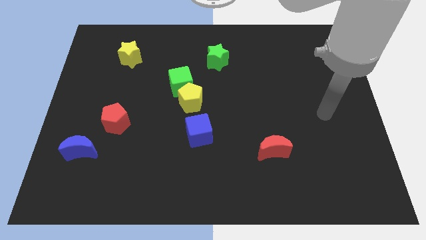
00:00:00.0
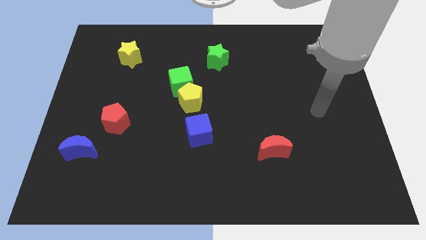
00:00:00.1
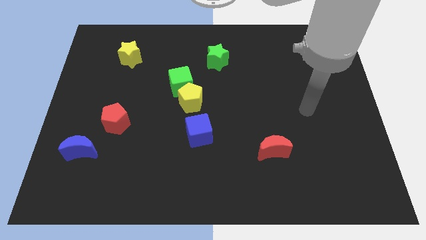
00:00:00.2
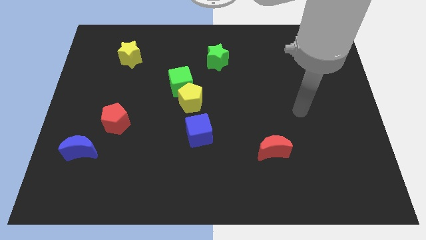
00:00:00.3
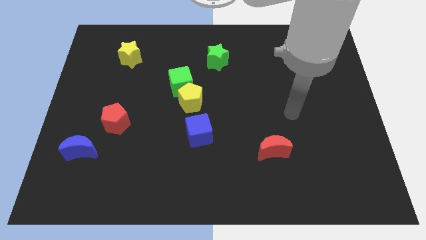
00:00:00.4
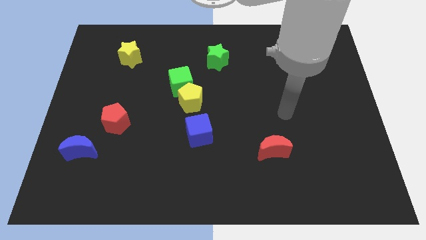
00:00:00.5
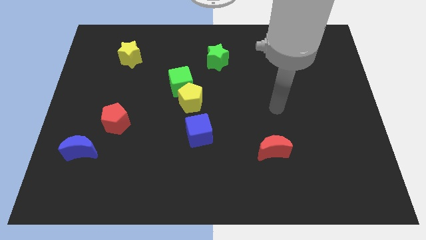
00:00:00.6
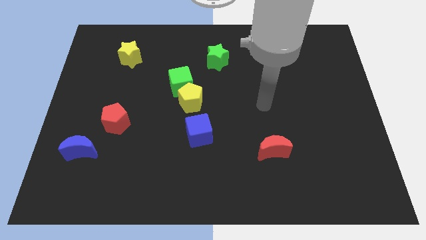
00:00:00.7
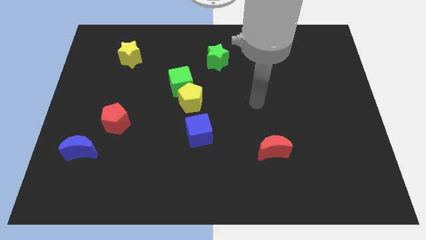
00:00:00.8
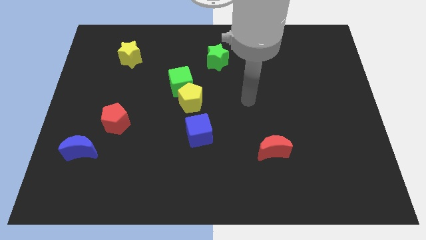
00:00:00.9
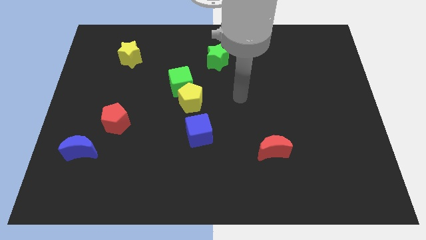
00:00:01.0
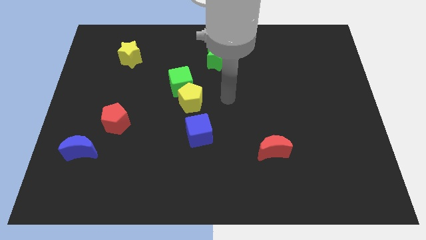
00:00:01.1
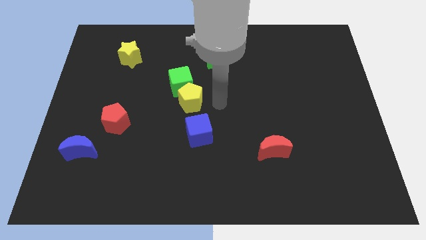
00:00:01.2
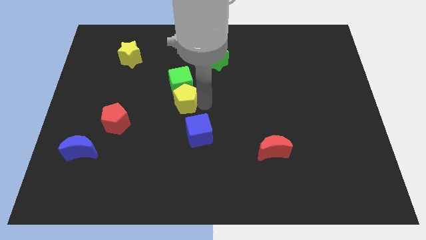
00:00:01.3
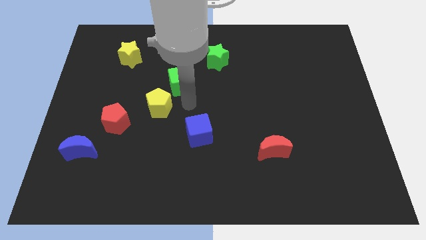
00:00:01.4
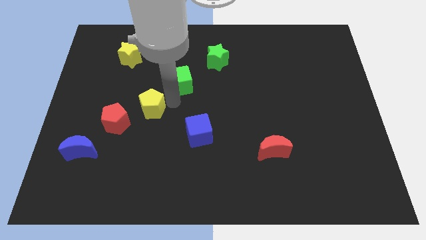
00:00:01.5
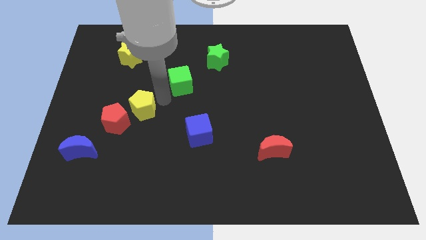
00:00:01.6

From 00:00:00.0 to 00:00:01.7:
separate the green cube from the yellow pentagon

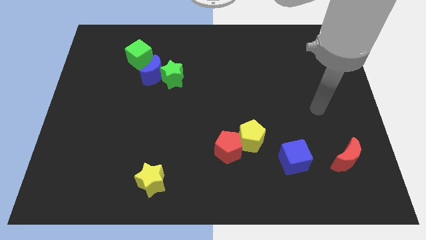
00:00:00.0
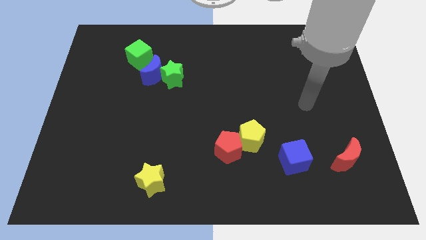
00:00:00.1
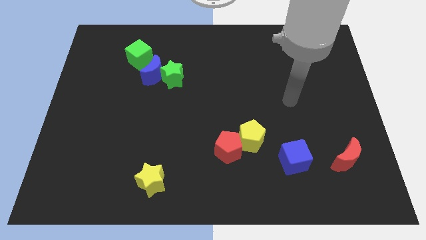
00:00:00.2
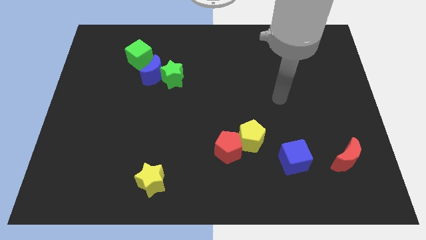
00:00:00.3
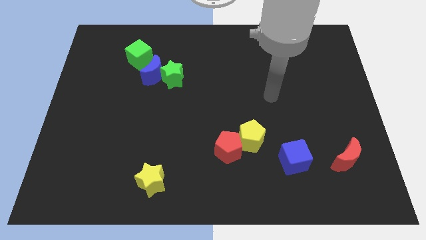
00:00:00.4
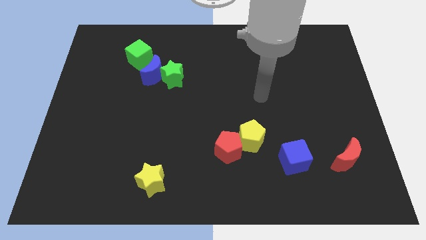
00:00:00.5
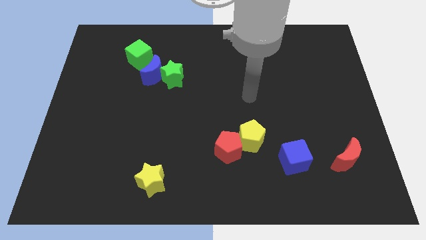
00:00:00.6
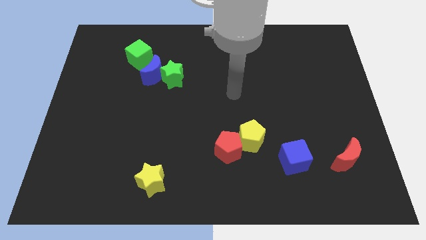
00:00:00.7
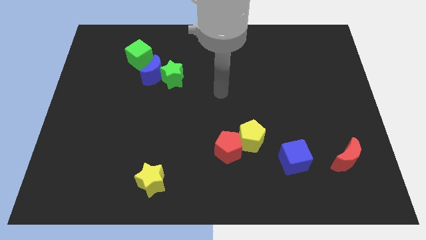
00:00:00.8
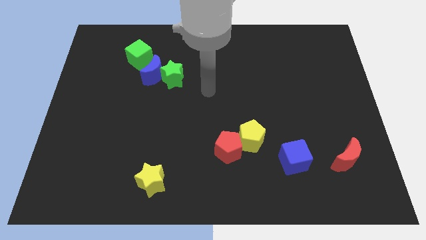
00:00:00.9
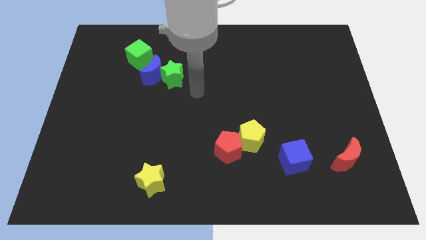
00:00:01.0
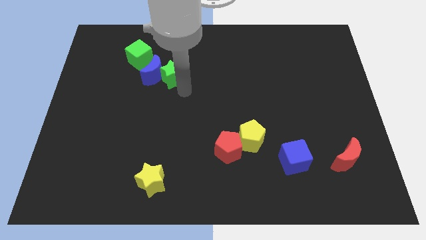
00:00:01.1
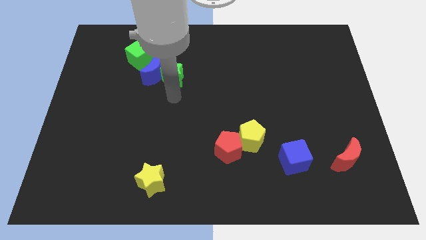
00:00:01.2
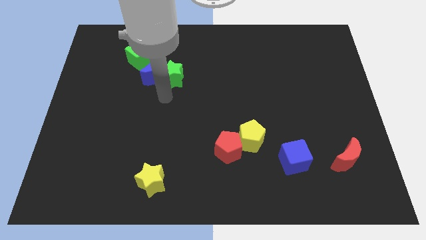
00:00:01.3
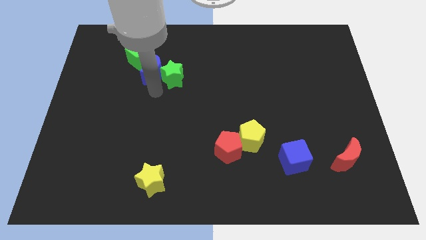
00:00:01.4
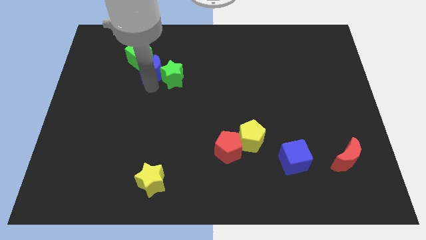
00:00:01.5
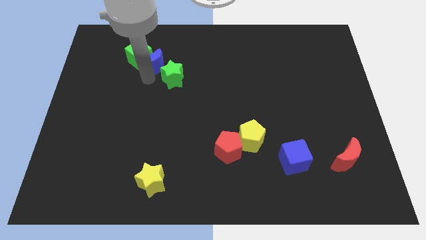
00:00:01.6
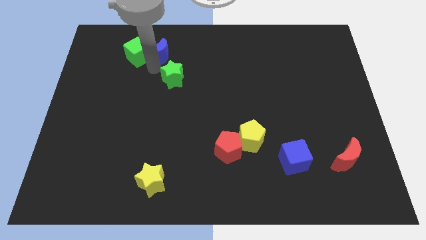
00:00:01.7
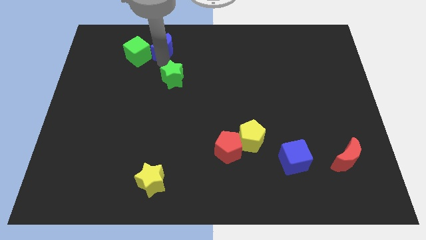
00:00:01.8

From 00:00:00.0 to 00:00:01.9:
move the green star away from the blue moon

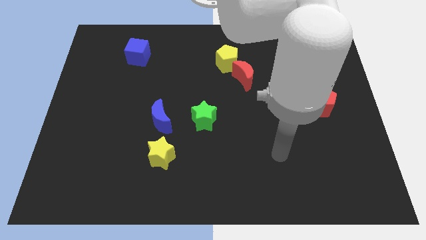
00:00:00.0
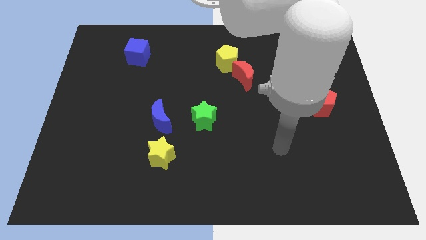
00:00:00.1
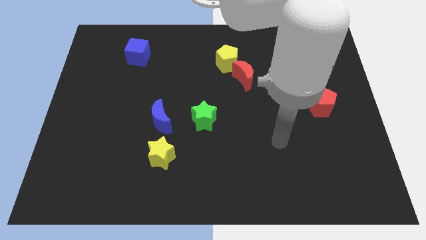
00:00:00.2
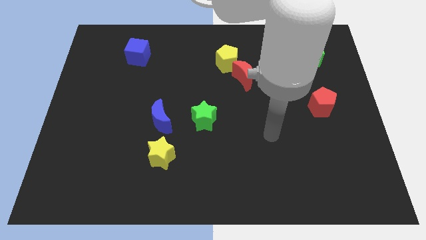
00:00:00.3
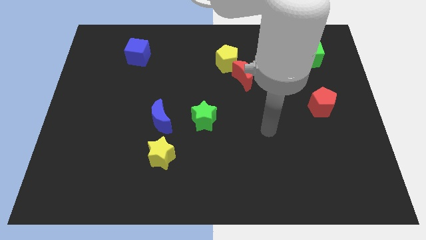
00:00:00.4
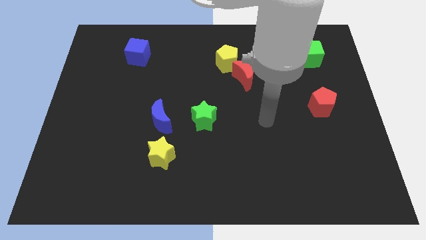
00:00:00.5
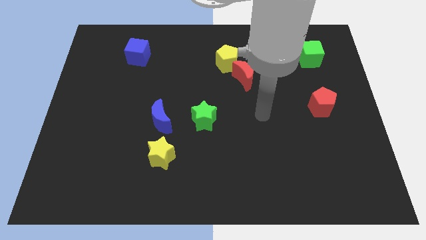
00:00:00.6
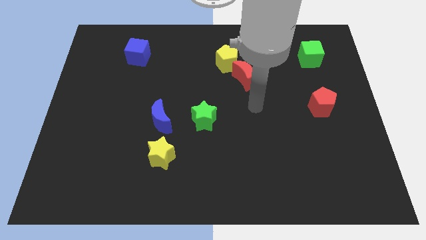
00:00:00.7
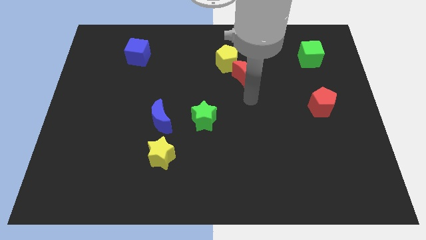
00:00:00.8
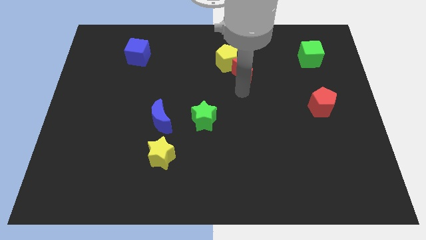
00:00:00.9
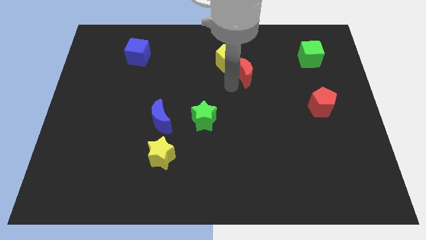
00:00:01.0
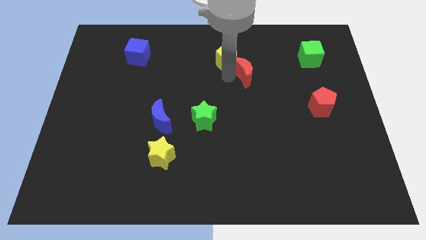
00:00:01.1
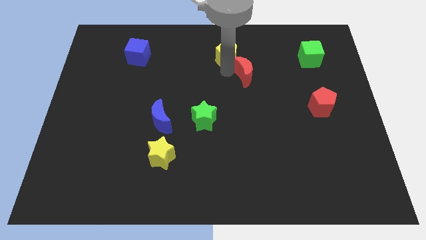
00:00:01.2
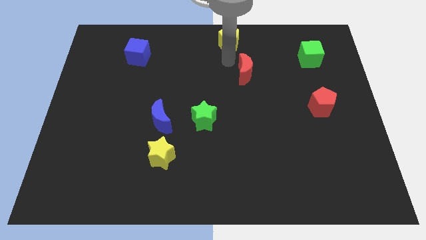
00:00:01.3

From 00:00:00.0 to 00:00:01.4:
pull the red moon apart from the yellow pentagon

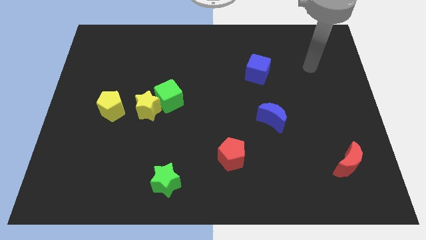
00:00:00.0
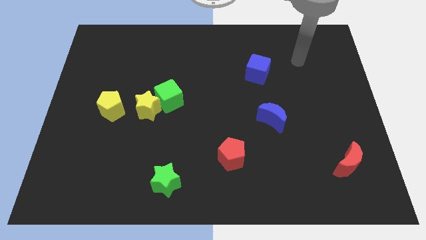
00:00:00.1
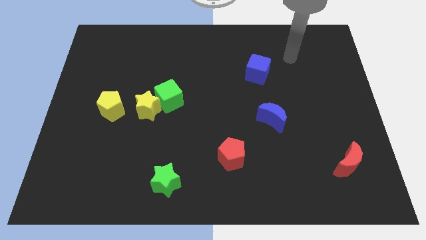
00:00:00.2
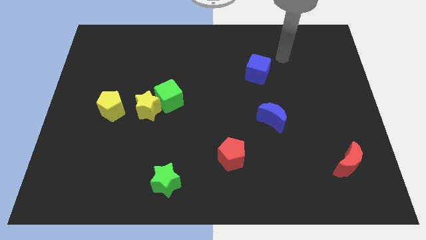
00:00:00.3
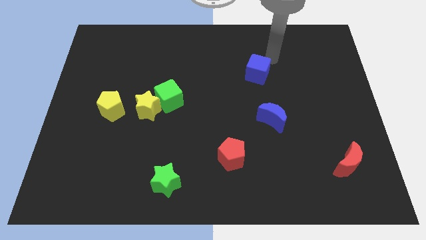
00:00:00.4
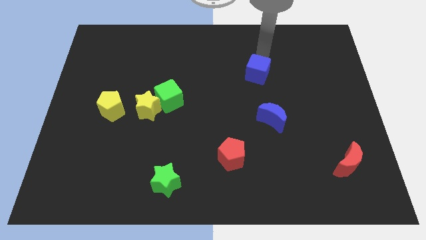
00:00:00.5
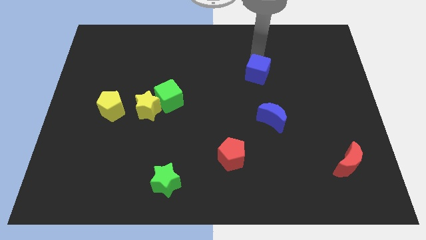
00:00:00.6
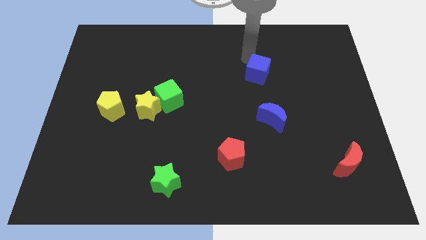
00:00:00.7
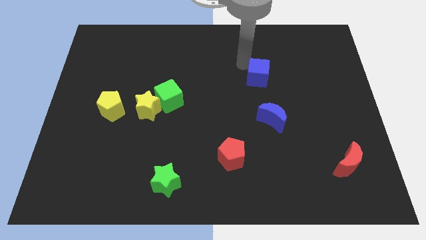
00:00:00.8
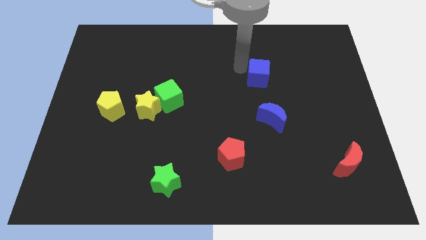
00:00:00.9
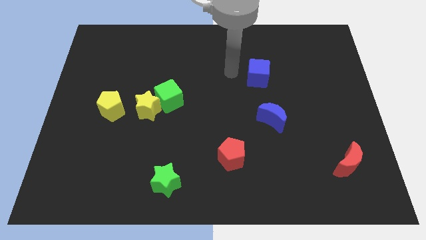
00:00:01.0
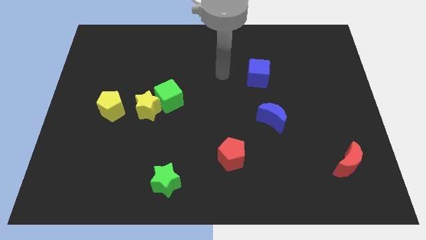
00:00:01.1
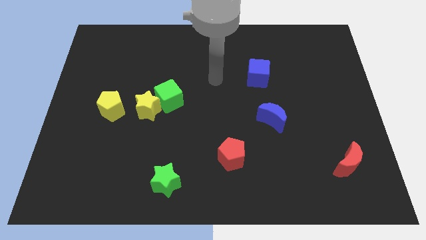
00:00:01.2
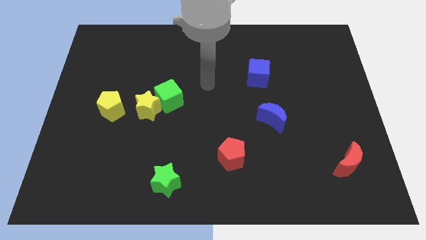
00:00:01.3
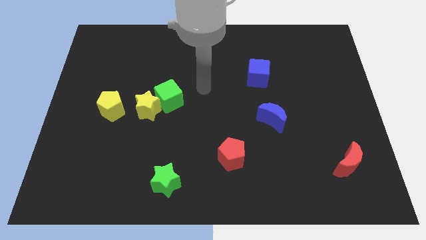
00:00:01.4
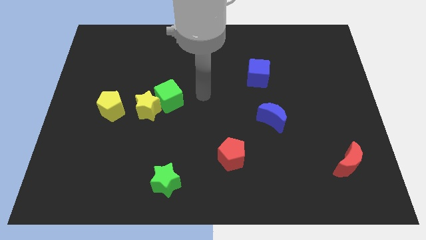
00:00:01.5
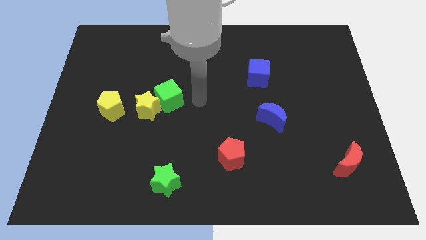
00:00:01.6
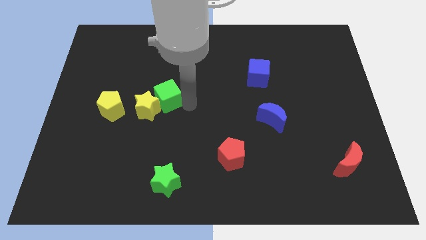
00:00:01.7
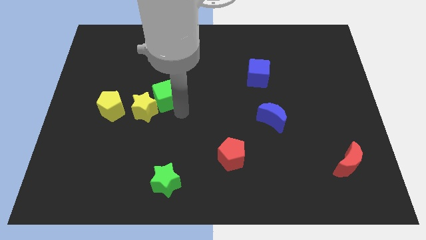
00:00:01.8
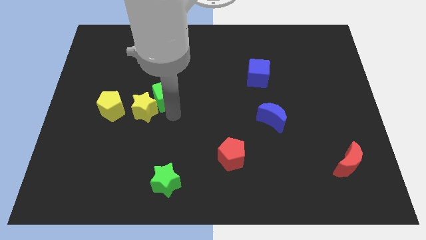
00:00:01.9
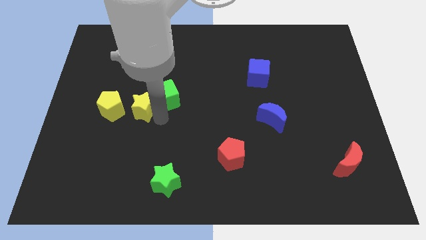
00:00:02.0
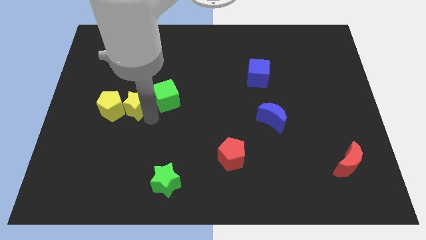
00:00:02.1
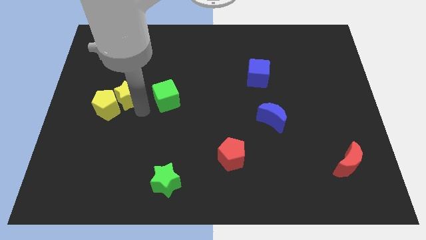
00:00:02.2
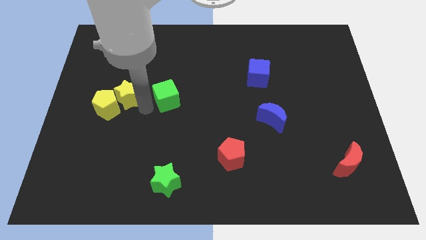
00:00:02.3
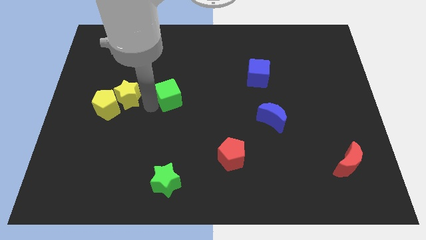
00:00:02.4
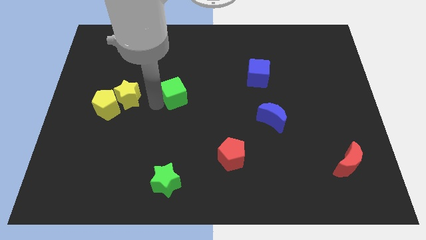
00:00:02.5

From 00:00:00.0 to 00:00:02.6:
pull the green cube apart from the yellow star

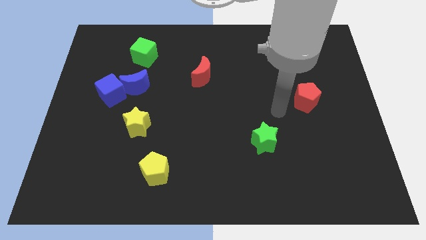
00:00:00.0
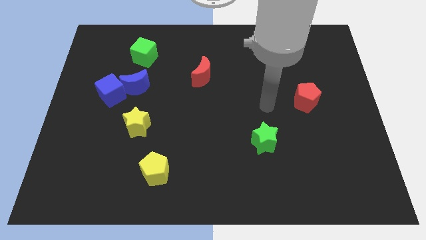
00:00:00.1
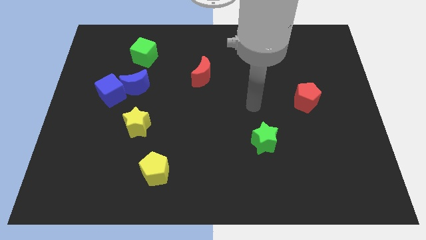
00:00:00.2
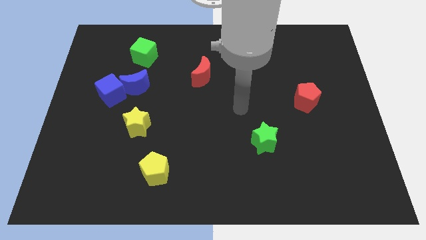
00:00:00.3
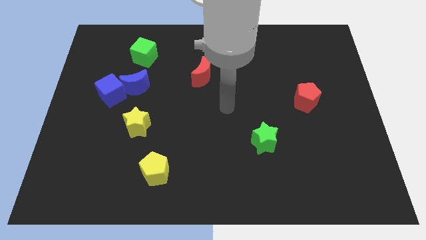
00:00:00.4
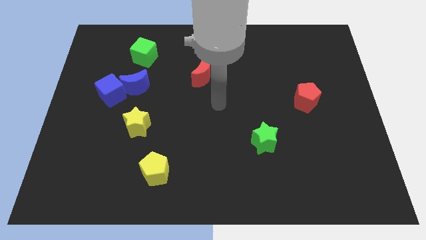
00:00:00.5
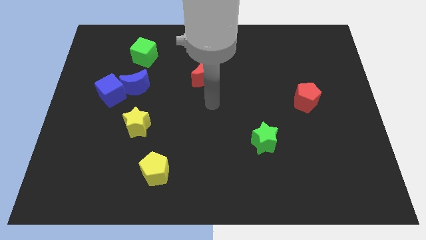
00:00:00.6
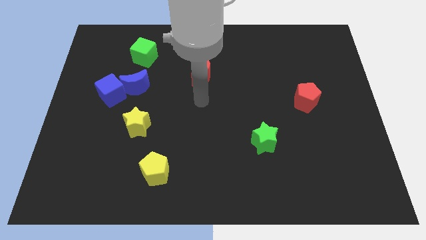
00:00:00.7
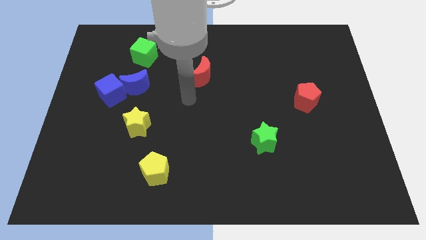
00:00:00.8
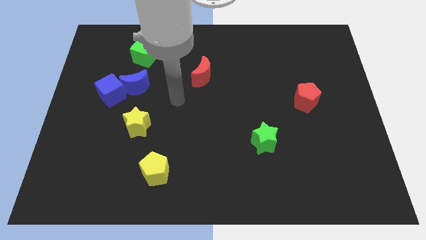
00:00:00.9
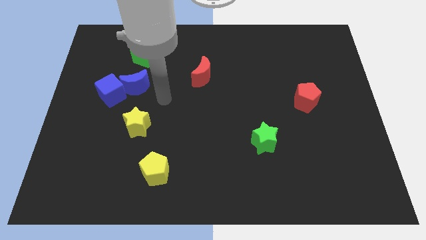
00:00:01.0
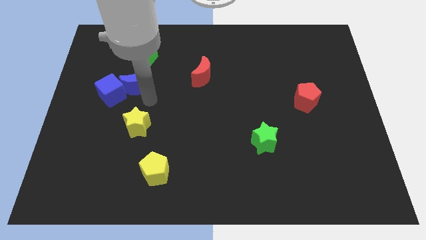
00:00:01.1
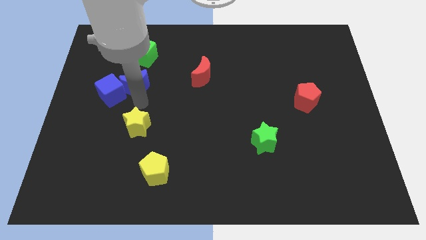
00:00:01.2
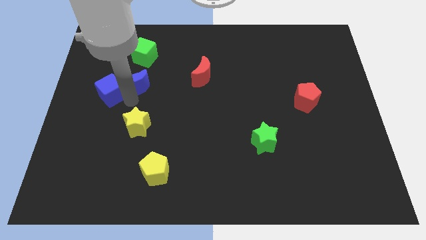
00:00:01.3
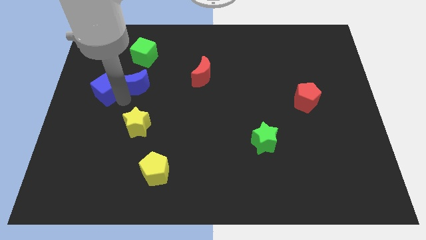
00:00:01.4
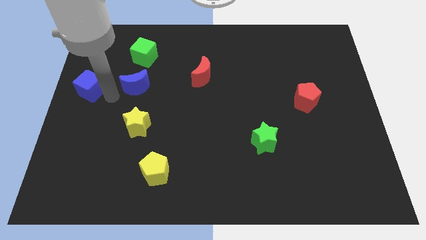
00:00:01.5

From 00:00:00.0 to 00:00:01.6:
pull the blue moon apart from the blue cube
